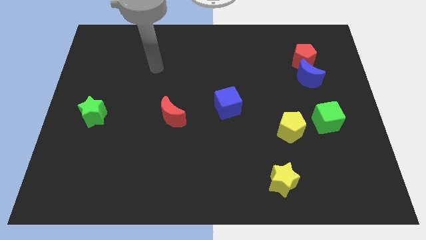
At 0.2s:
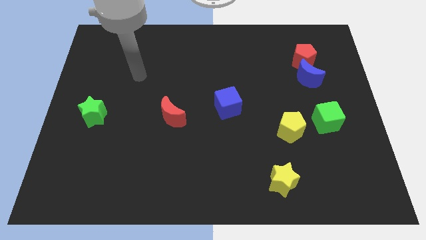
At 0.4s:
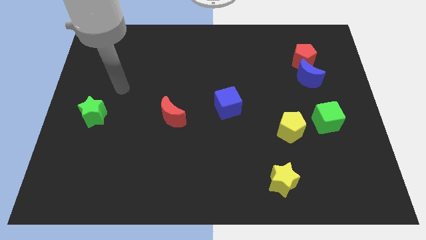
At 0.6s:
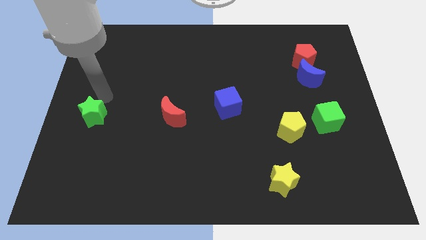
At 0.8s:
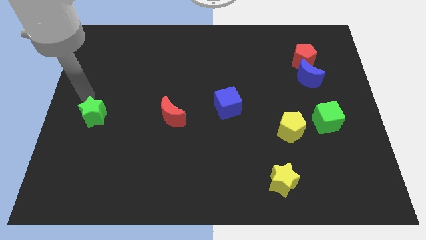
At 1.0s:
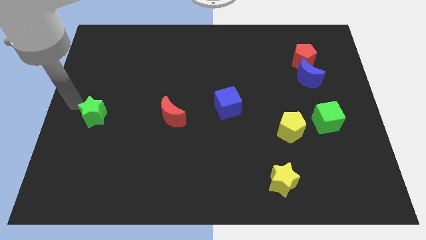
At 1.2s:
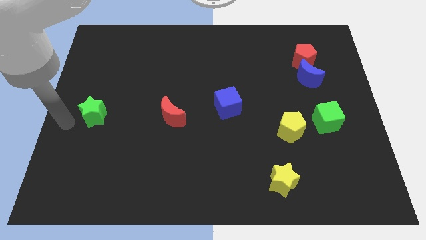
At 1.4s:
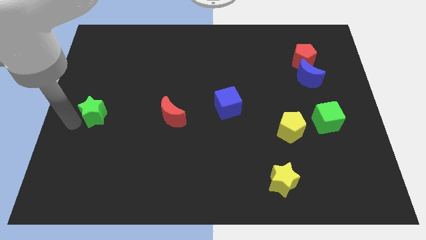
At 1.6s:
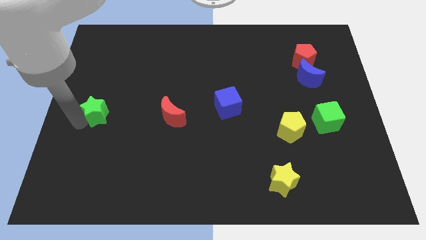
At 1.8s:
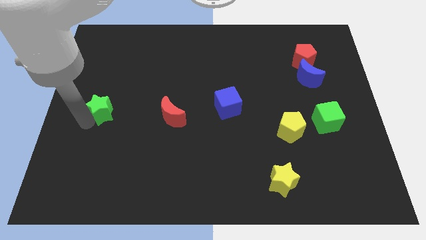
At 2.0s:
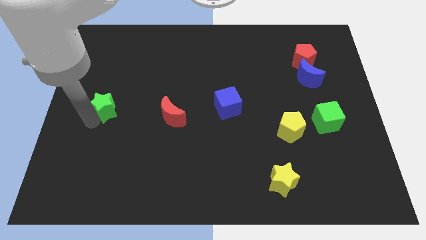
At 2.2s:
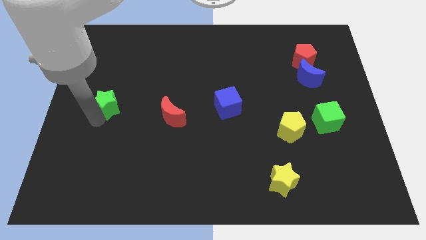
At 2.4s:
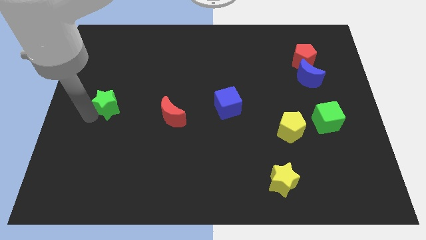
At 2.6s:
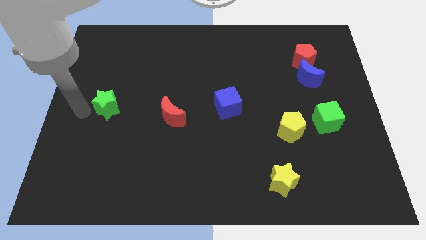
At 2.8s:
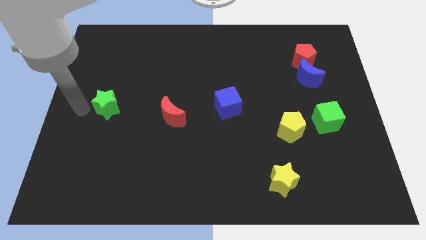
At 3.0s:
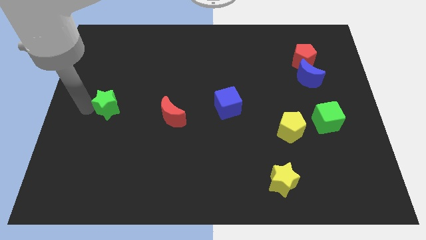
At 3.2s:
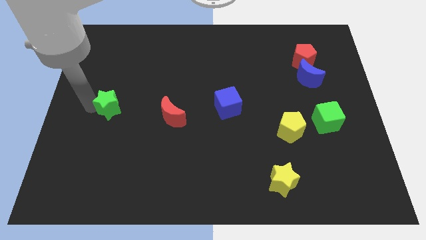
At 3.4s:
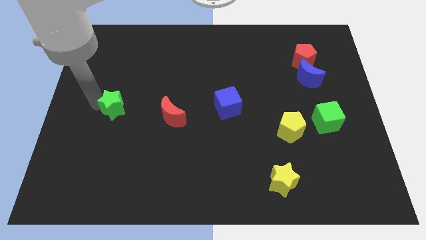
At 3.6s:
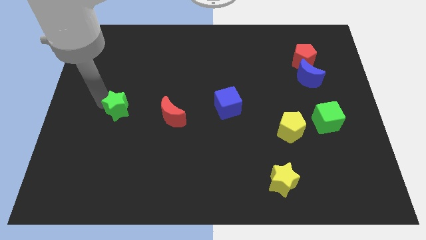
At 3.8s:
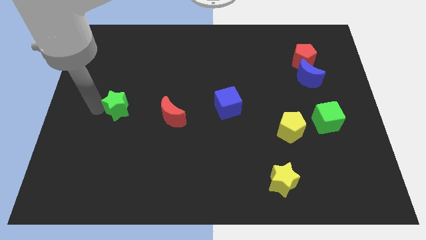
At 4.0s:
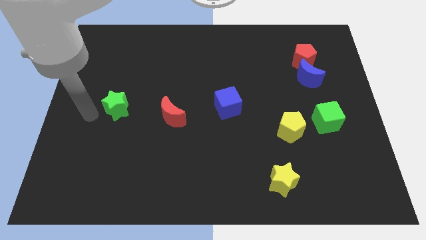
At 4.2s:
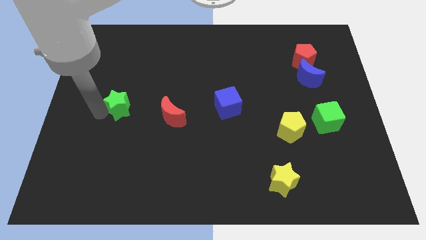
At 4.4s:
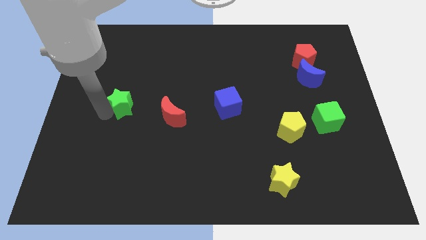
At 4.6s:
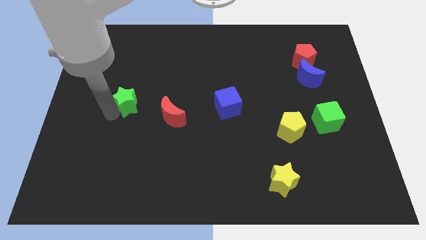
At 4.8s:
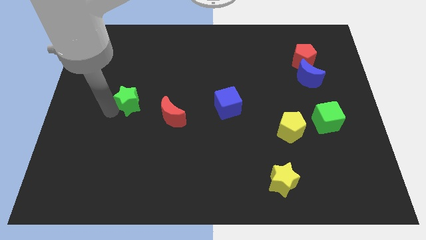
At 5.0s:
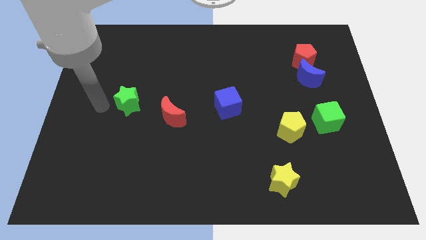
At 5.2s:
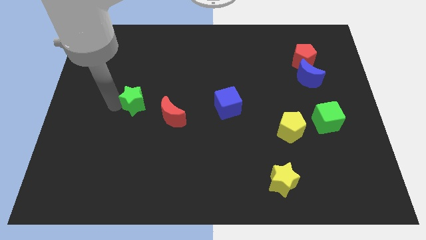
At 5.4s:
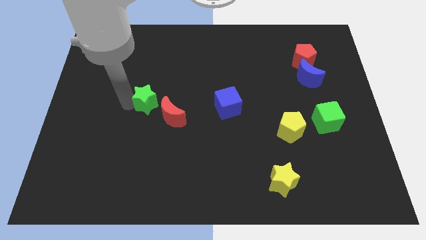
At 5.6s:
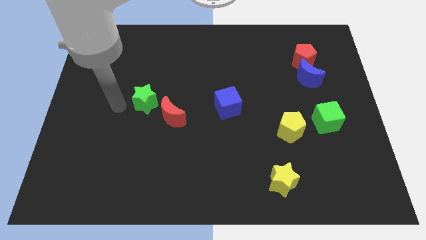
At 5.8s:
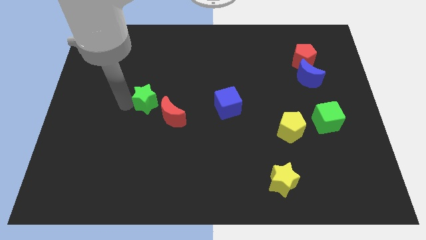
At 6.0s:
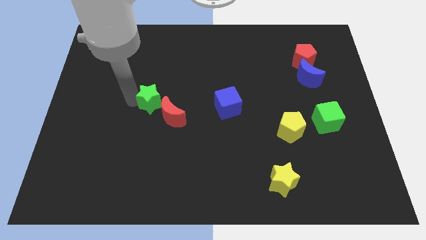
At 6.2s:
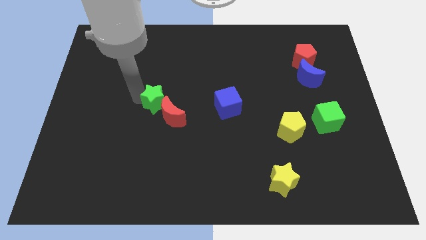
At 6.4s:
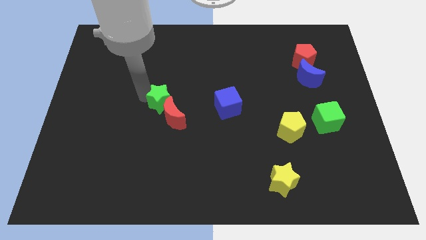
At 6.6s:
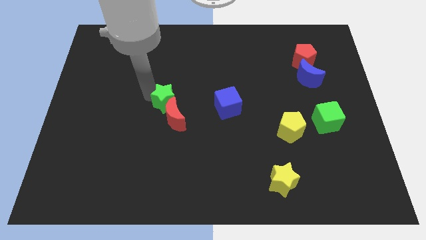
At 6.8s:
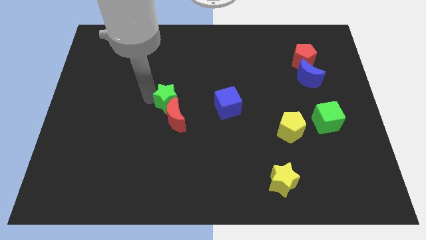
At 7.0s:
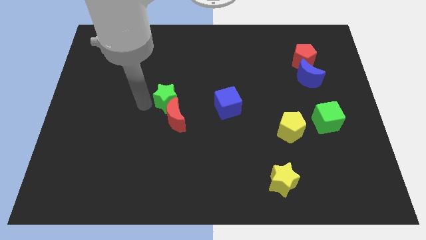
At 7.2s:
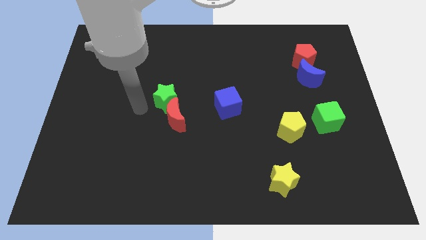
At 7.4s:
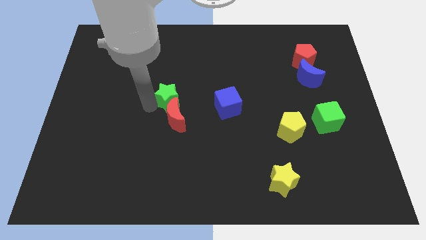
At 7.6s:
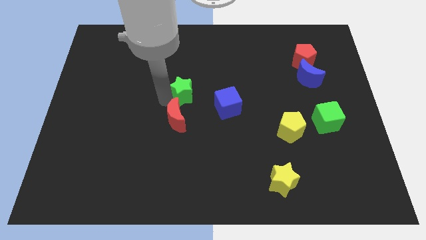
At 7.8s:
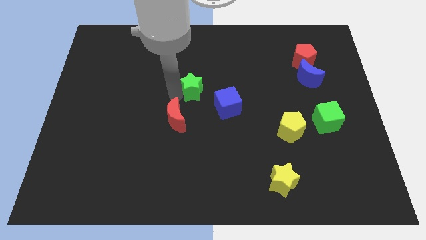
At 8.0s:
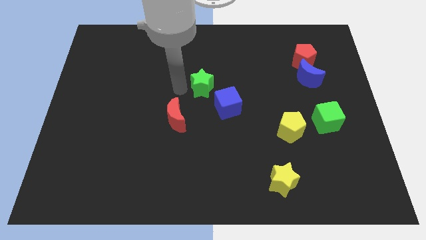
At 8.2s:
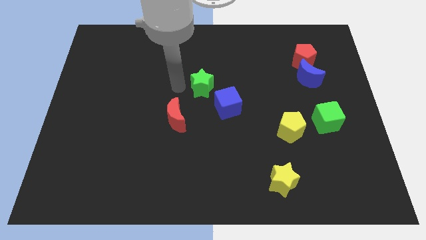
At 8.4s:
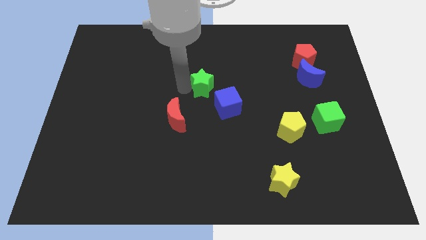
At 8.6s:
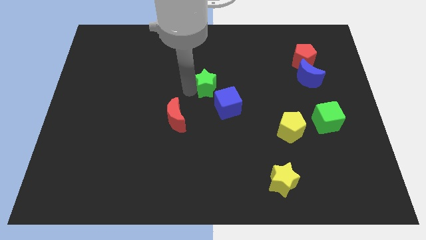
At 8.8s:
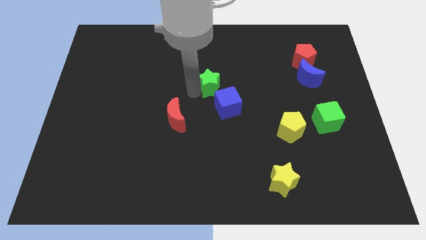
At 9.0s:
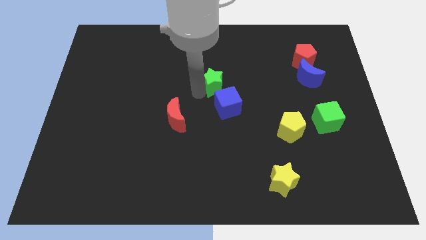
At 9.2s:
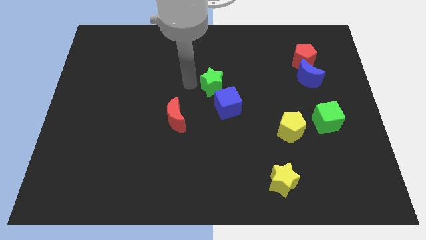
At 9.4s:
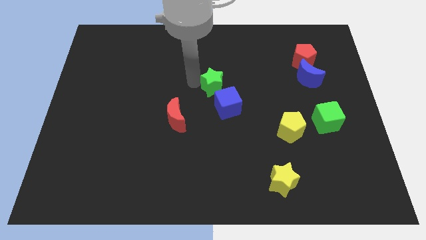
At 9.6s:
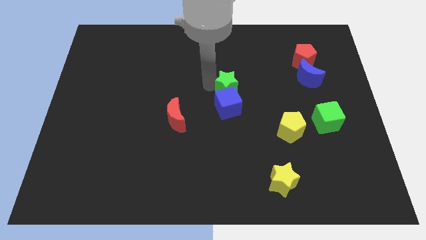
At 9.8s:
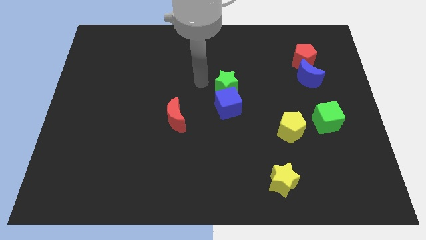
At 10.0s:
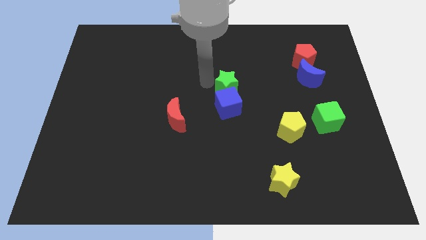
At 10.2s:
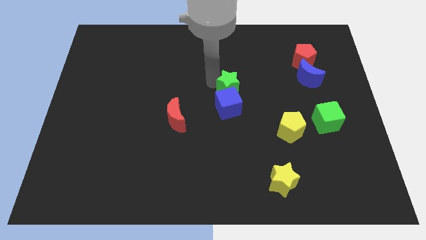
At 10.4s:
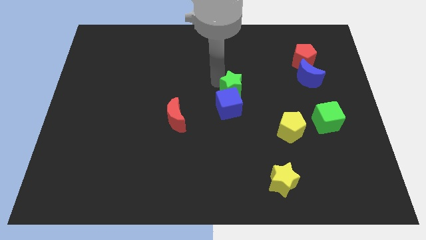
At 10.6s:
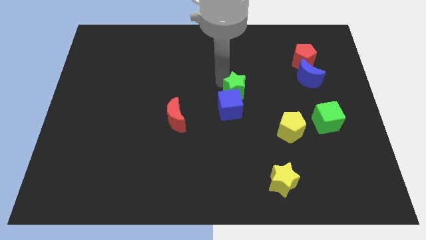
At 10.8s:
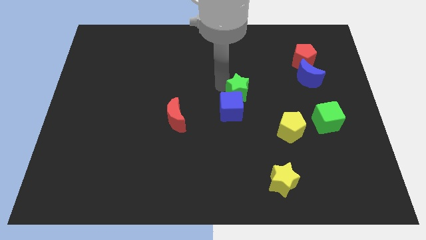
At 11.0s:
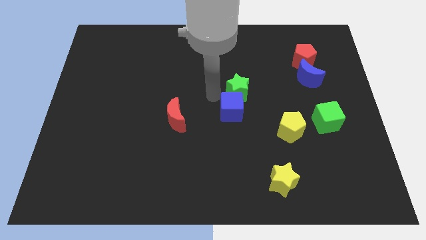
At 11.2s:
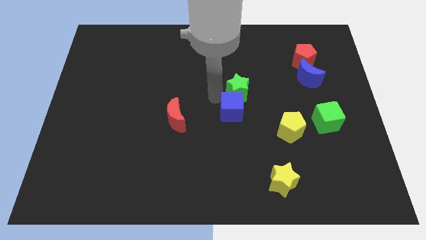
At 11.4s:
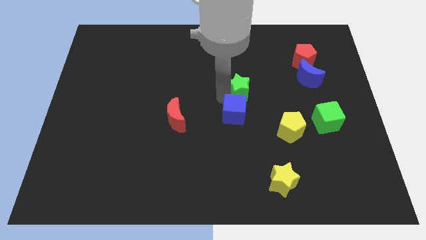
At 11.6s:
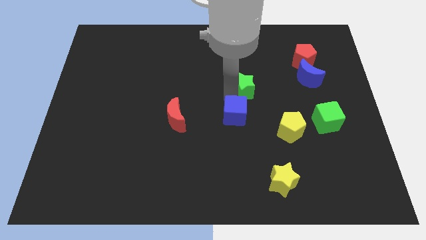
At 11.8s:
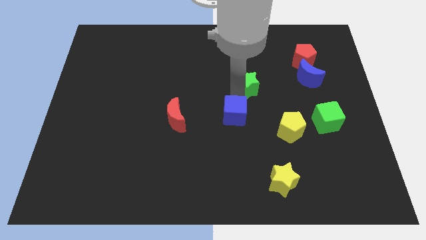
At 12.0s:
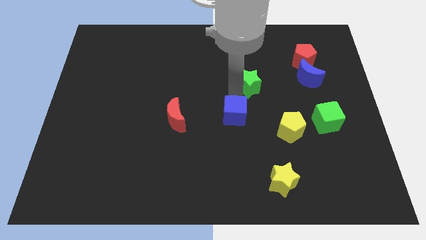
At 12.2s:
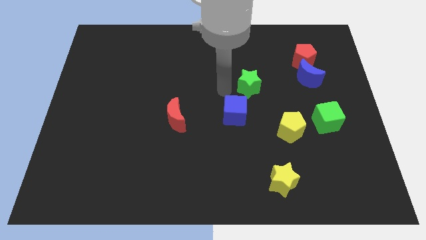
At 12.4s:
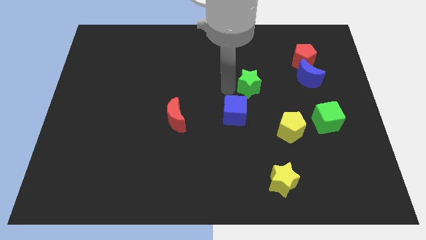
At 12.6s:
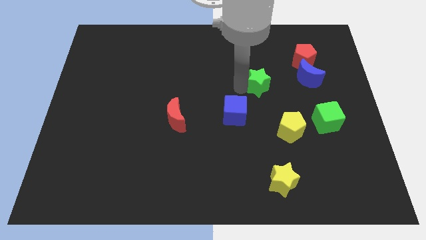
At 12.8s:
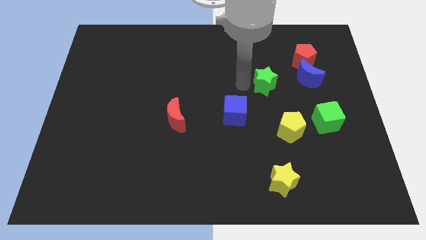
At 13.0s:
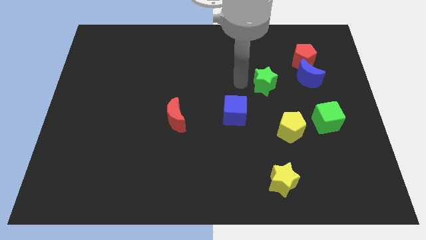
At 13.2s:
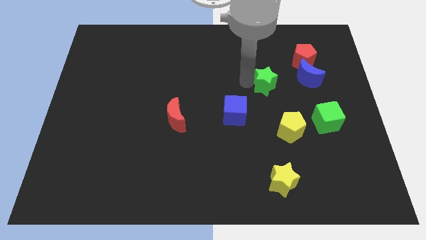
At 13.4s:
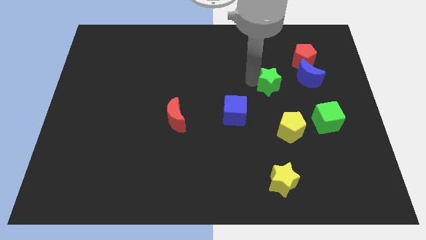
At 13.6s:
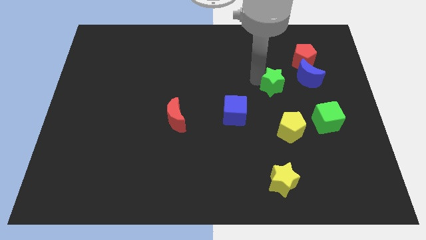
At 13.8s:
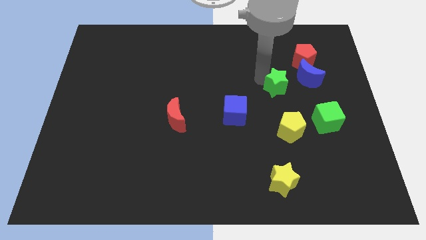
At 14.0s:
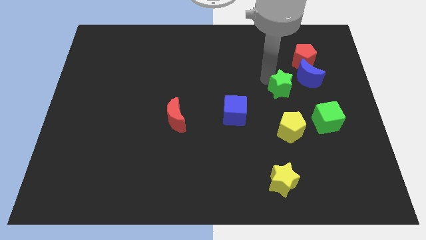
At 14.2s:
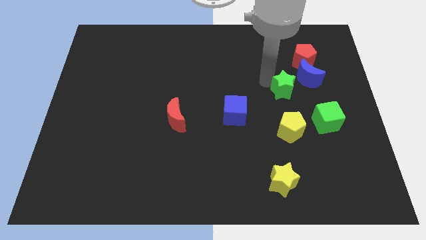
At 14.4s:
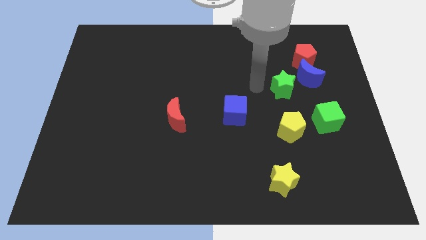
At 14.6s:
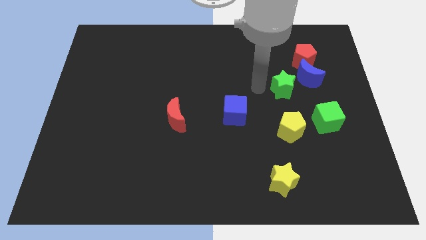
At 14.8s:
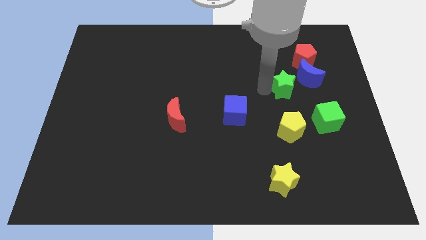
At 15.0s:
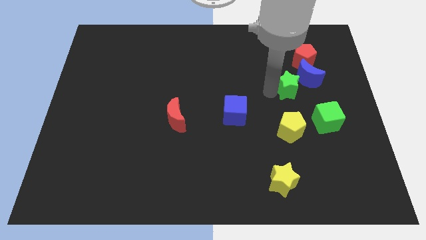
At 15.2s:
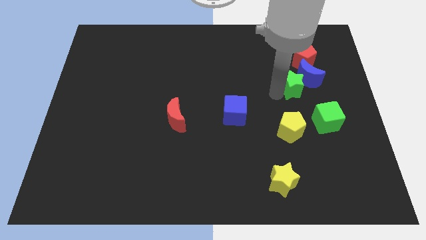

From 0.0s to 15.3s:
move the green star to the bottom of the red pentagon
